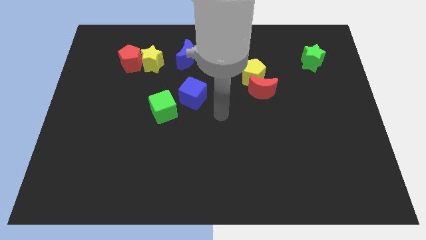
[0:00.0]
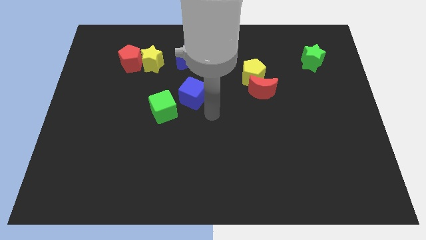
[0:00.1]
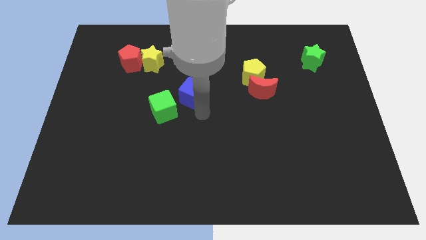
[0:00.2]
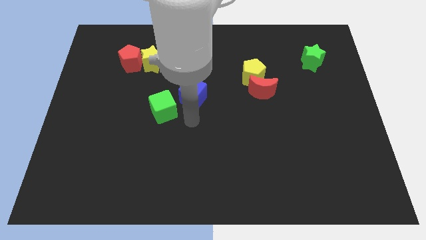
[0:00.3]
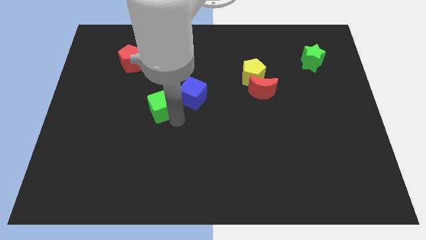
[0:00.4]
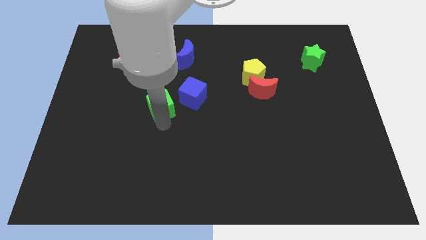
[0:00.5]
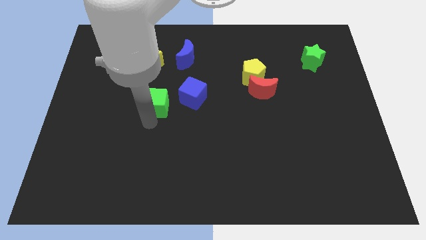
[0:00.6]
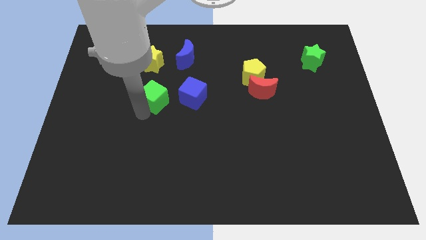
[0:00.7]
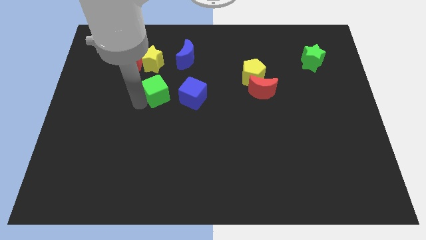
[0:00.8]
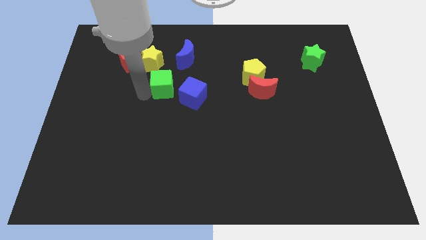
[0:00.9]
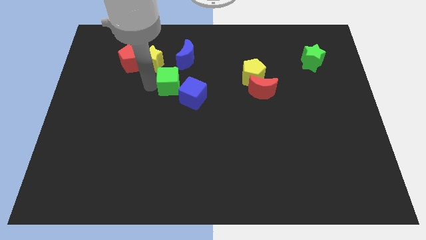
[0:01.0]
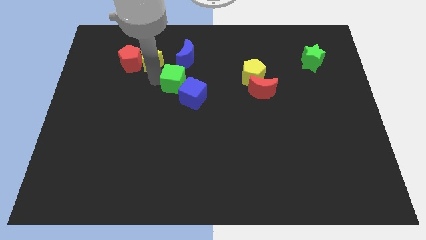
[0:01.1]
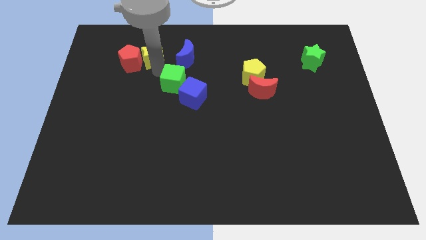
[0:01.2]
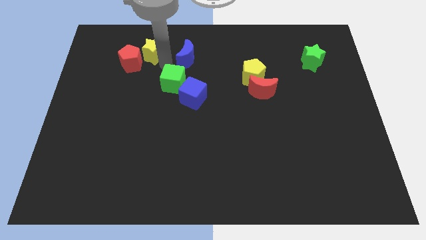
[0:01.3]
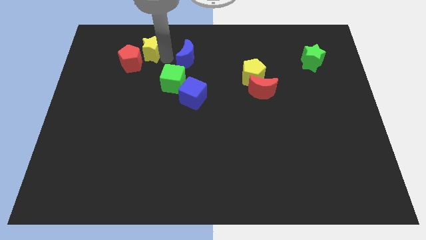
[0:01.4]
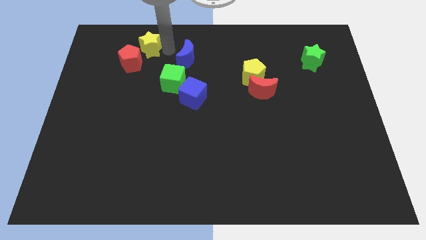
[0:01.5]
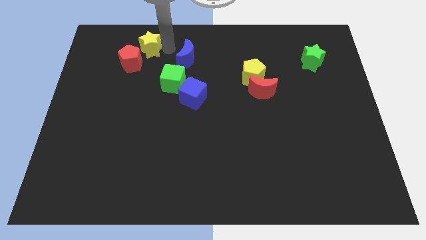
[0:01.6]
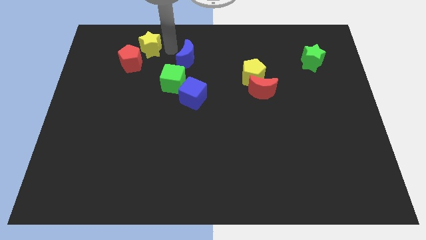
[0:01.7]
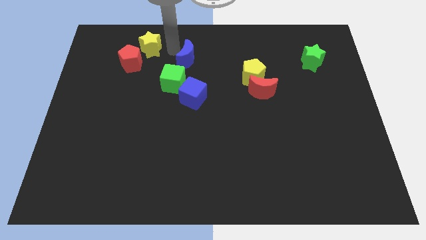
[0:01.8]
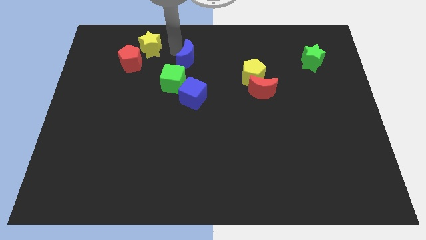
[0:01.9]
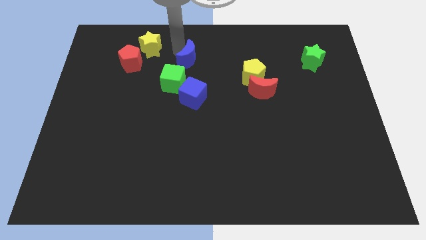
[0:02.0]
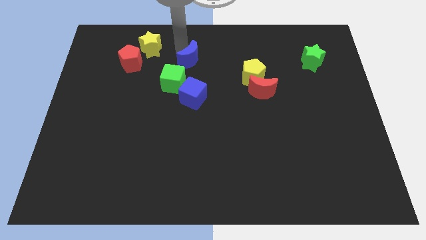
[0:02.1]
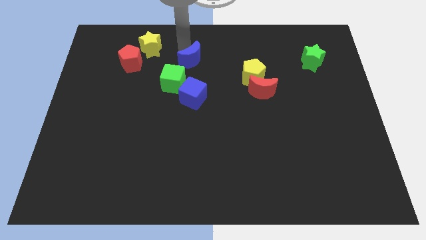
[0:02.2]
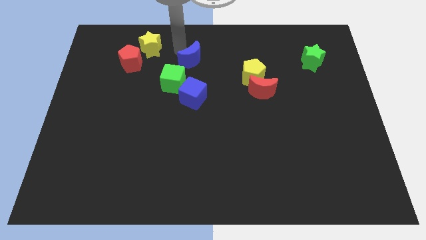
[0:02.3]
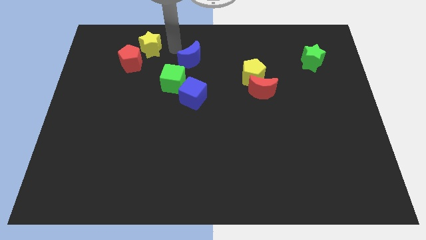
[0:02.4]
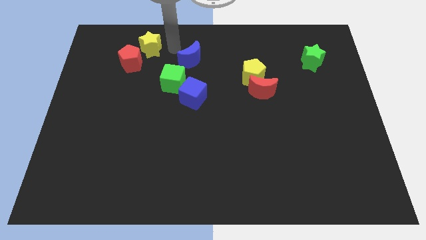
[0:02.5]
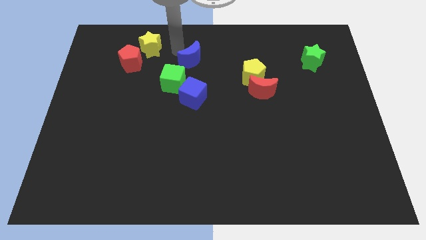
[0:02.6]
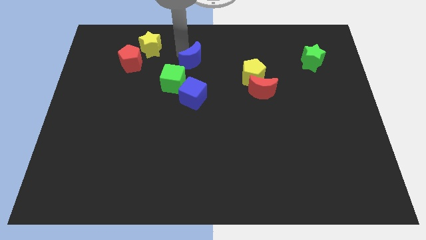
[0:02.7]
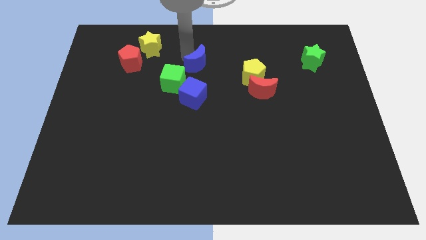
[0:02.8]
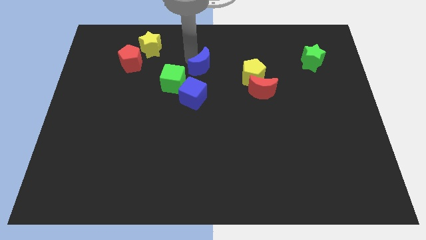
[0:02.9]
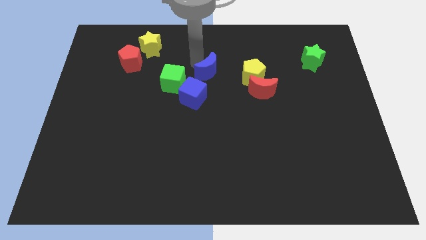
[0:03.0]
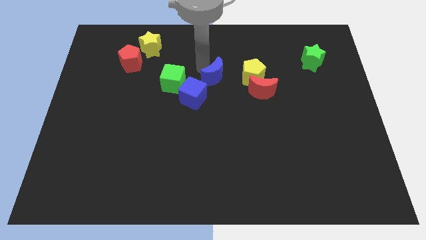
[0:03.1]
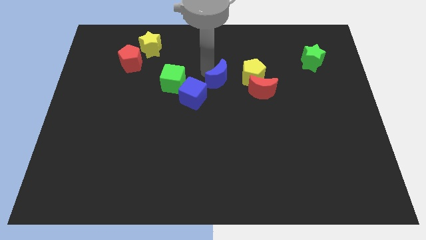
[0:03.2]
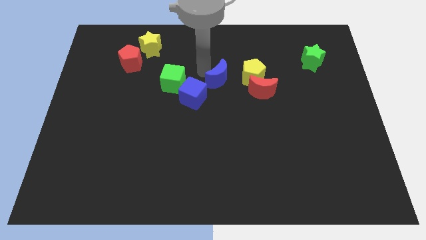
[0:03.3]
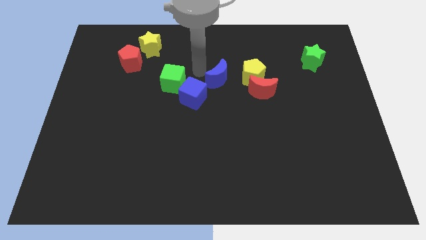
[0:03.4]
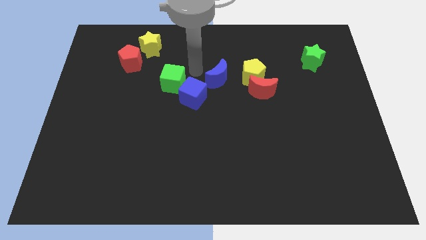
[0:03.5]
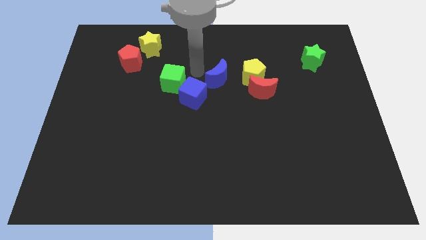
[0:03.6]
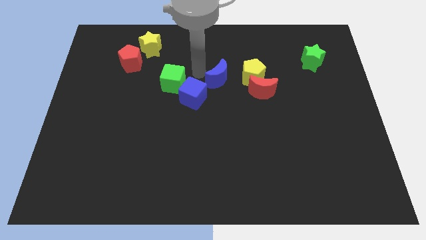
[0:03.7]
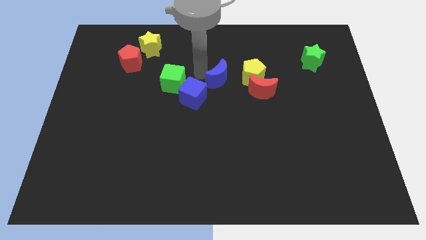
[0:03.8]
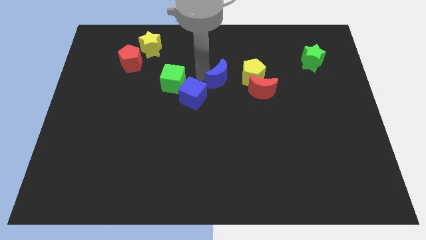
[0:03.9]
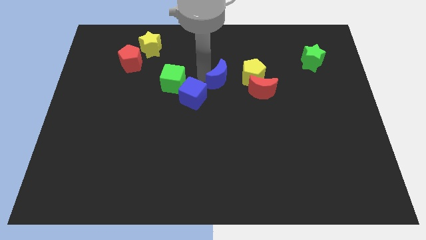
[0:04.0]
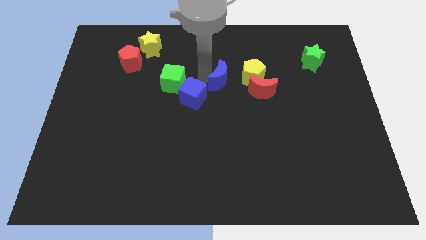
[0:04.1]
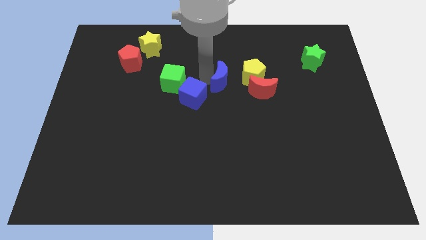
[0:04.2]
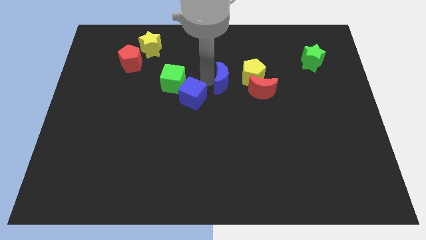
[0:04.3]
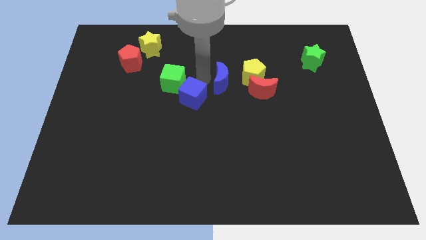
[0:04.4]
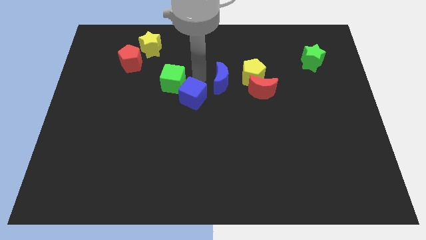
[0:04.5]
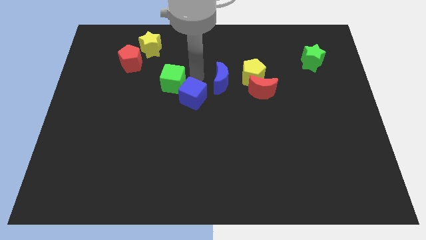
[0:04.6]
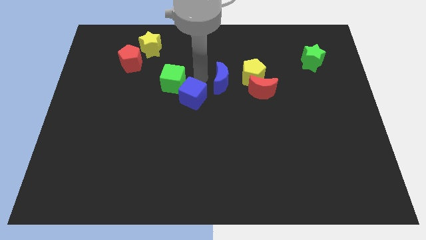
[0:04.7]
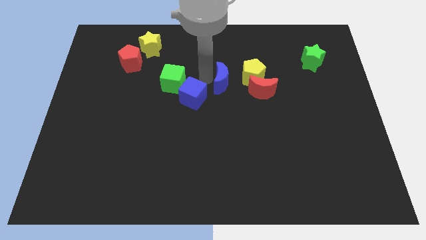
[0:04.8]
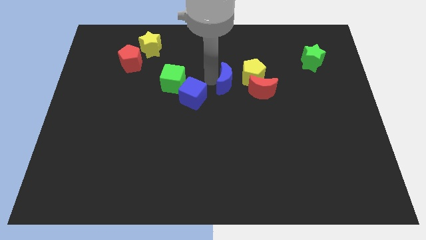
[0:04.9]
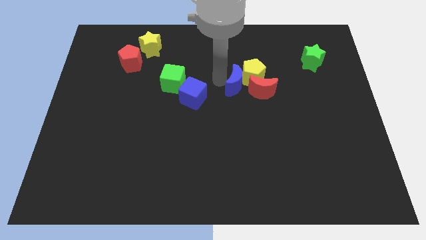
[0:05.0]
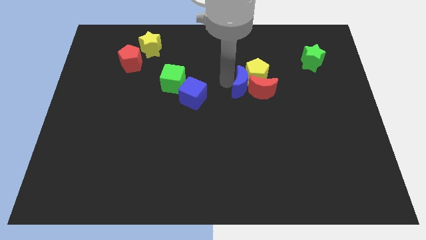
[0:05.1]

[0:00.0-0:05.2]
put the blue moon to the red moon

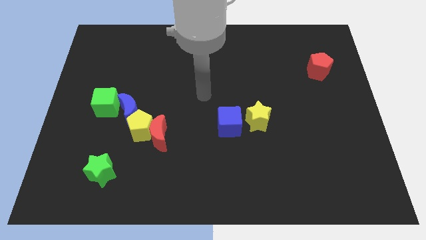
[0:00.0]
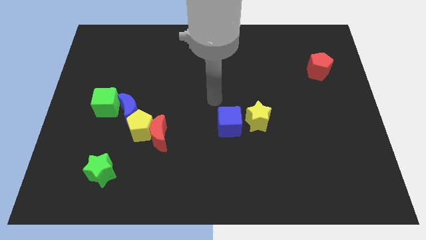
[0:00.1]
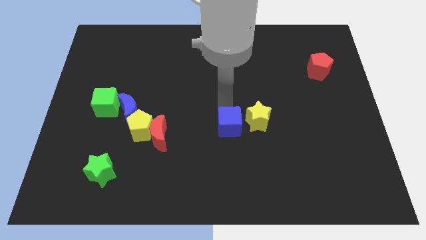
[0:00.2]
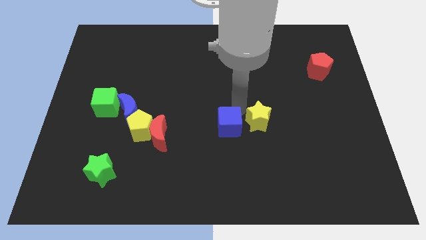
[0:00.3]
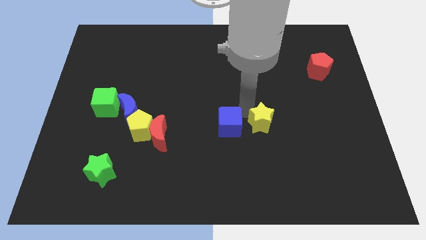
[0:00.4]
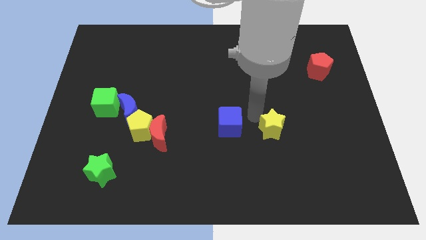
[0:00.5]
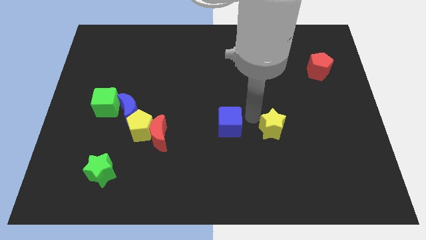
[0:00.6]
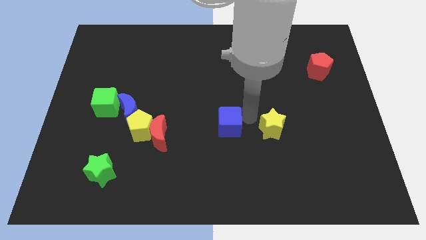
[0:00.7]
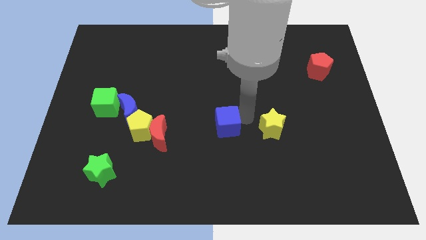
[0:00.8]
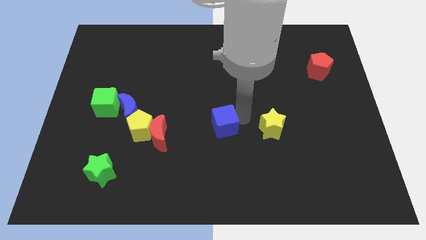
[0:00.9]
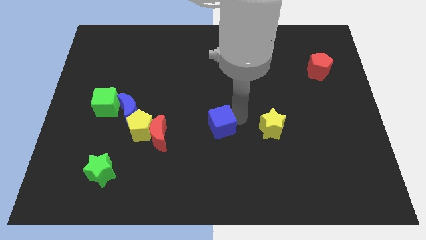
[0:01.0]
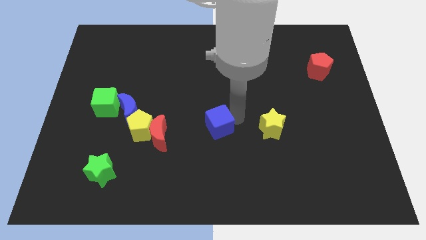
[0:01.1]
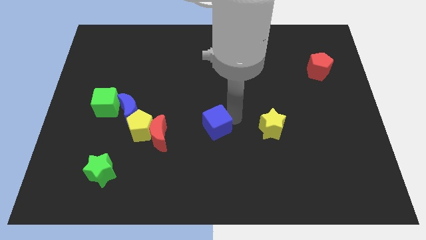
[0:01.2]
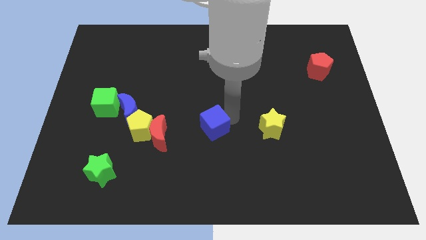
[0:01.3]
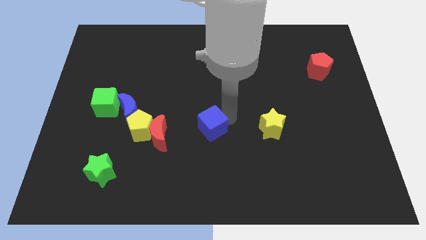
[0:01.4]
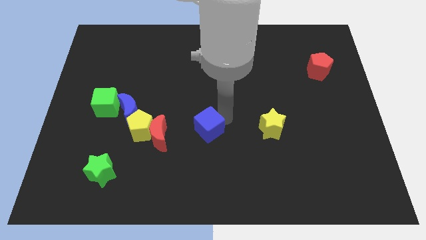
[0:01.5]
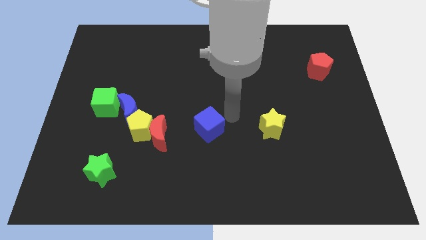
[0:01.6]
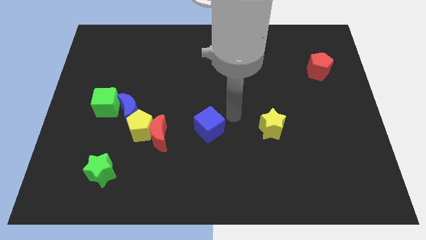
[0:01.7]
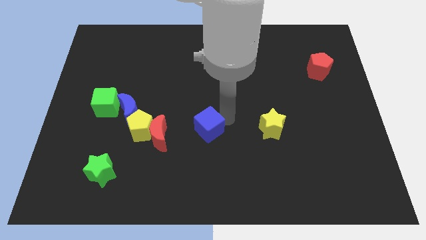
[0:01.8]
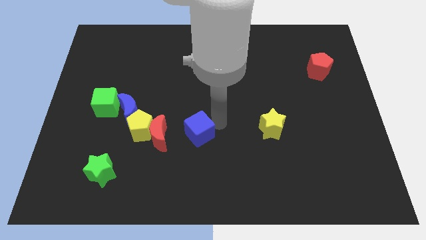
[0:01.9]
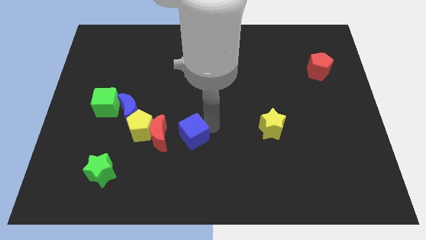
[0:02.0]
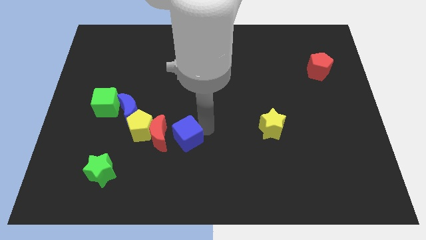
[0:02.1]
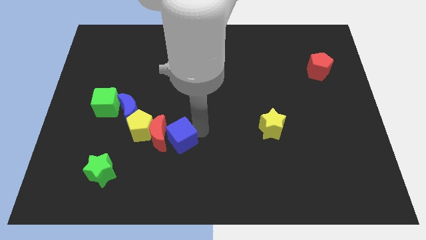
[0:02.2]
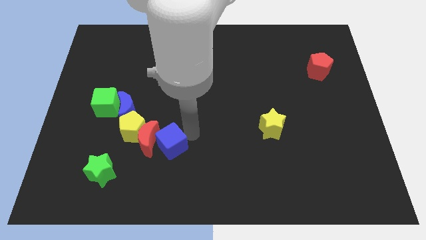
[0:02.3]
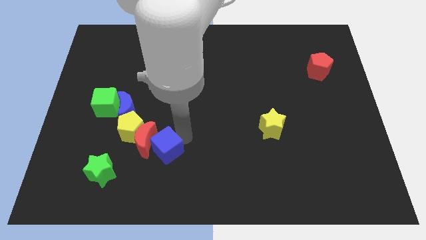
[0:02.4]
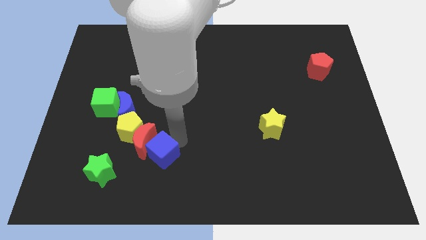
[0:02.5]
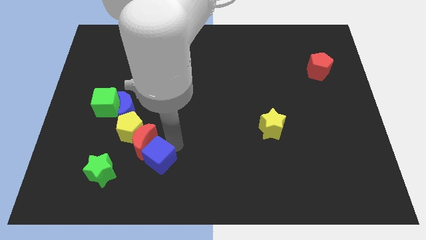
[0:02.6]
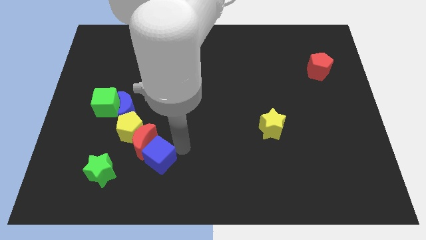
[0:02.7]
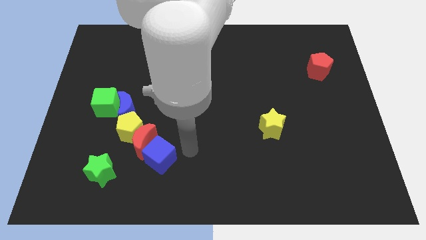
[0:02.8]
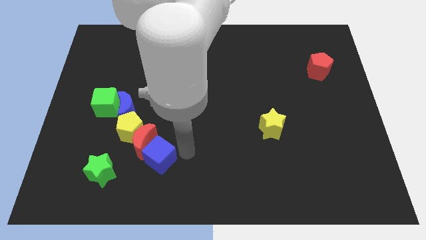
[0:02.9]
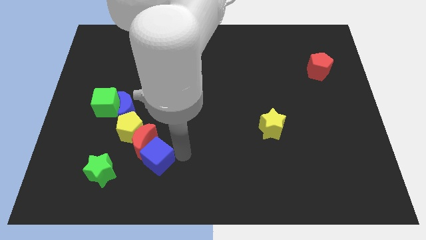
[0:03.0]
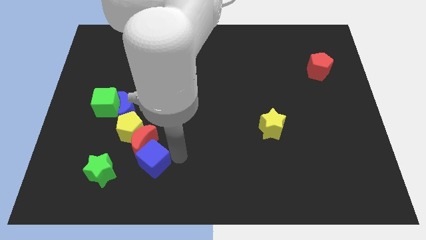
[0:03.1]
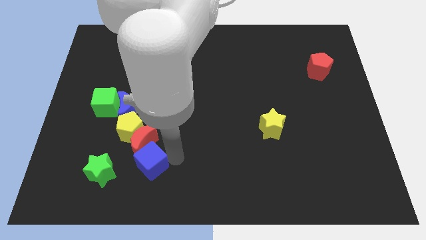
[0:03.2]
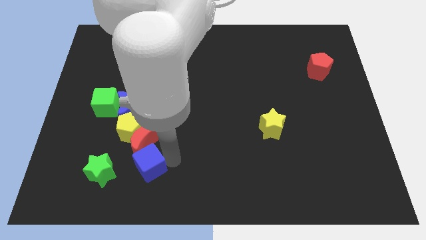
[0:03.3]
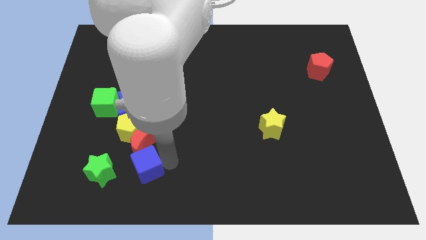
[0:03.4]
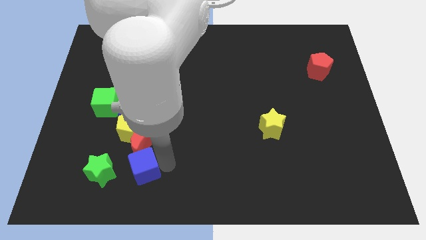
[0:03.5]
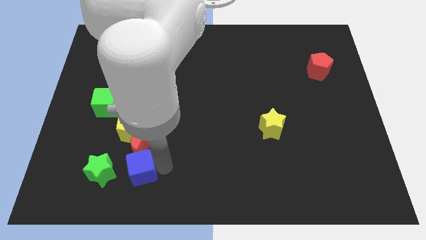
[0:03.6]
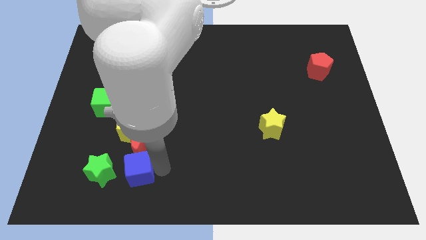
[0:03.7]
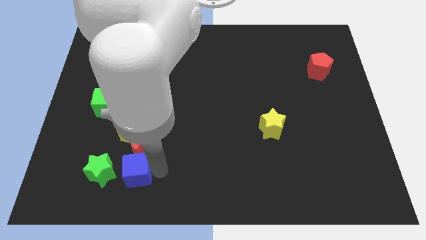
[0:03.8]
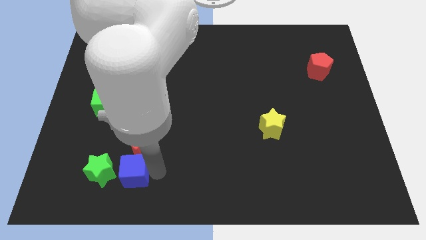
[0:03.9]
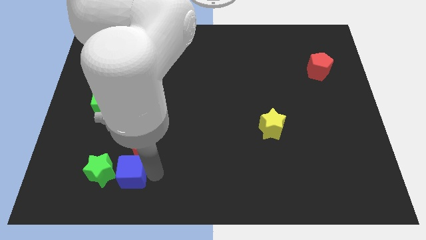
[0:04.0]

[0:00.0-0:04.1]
slide the blue cube next to the green star
